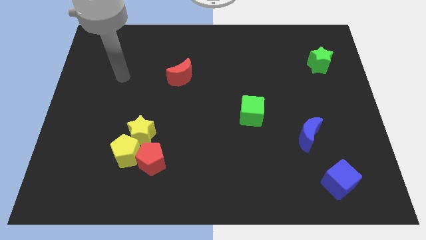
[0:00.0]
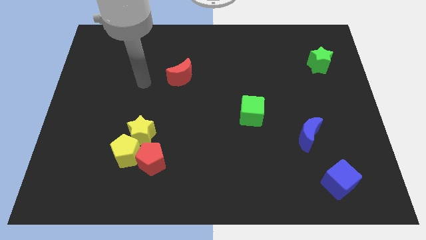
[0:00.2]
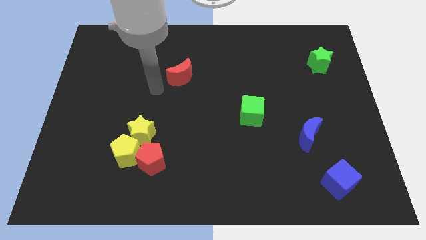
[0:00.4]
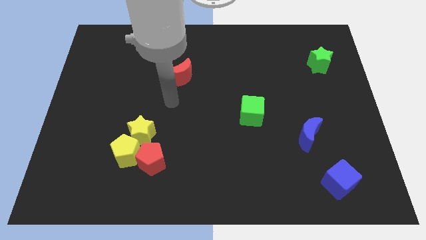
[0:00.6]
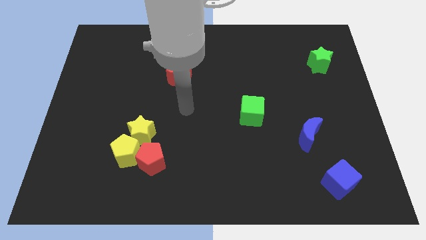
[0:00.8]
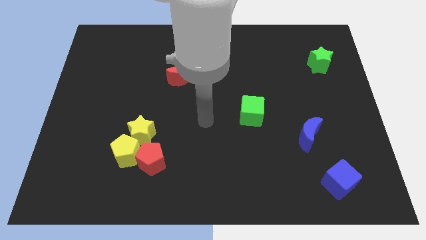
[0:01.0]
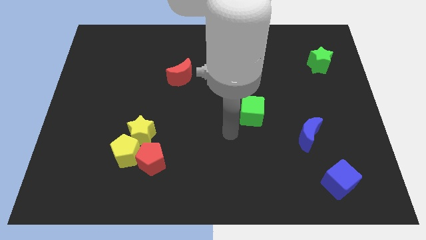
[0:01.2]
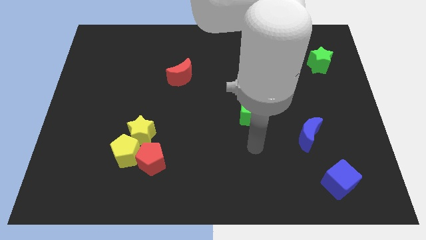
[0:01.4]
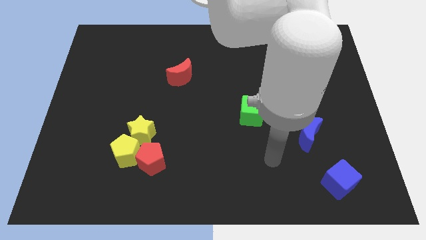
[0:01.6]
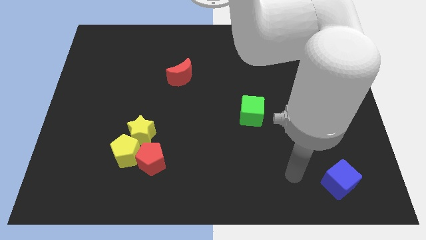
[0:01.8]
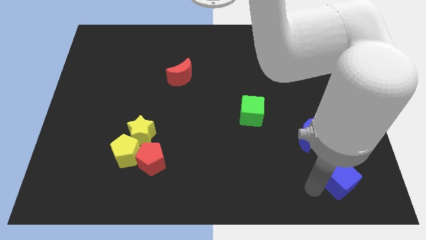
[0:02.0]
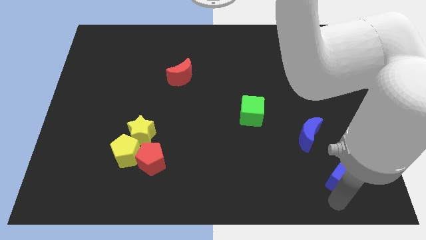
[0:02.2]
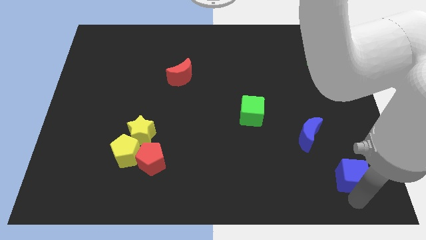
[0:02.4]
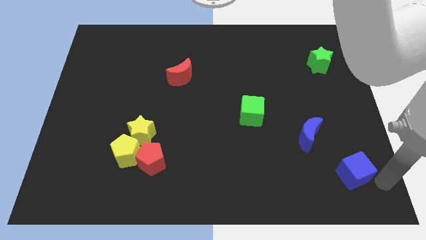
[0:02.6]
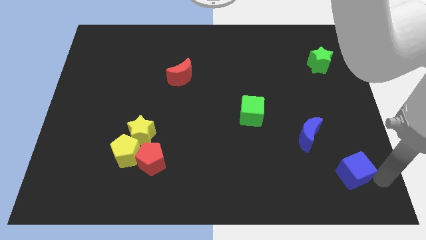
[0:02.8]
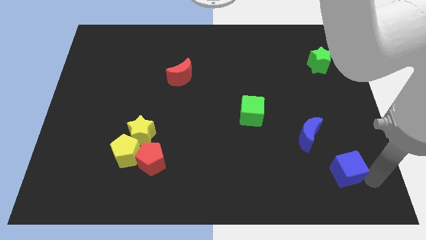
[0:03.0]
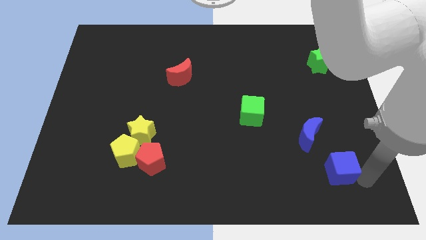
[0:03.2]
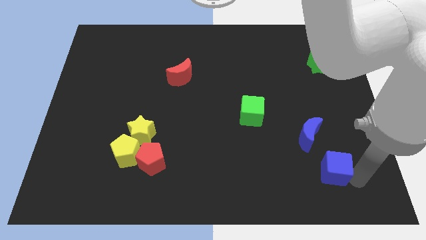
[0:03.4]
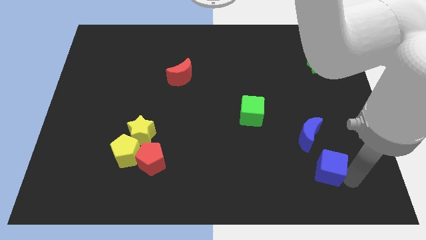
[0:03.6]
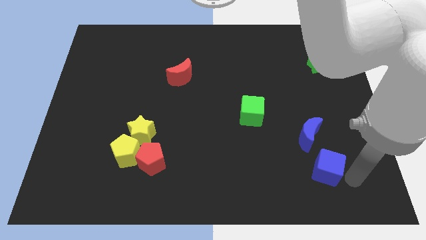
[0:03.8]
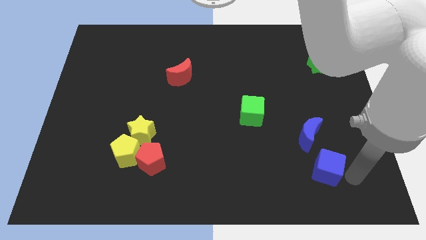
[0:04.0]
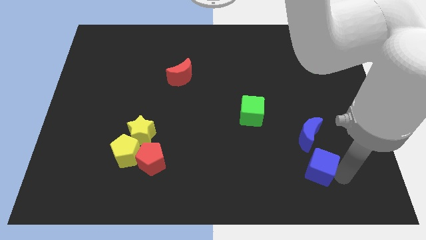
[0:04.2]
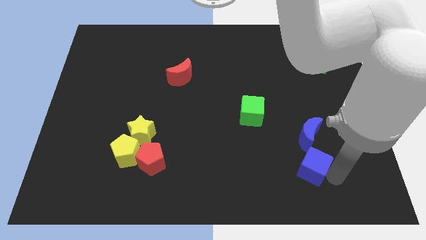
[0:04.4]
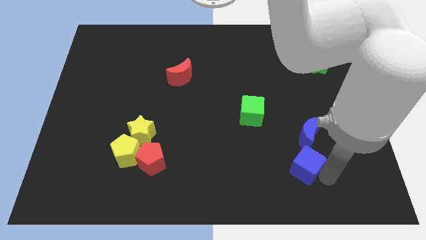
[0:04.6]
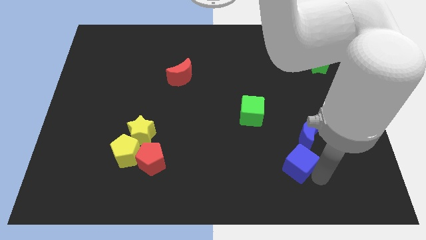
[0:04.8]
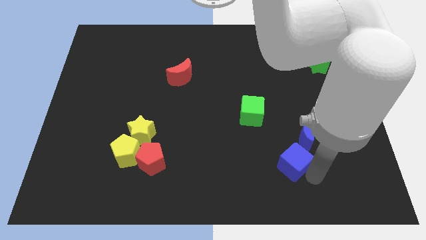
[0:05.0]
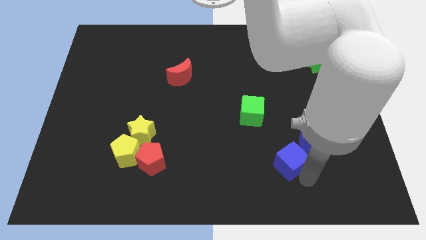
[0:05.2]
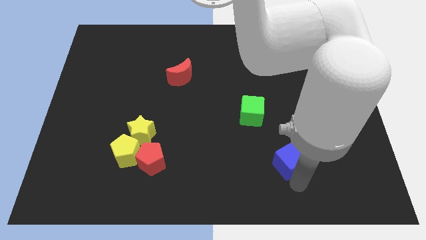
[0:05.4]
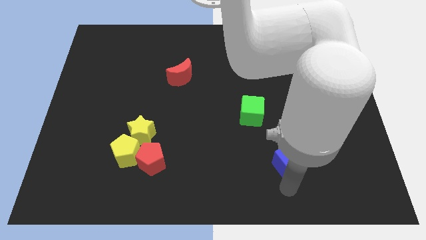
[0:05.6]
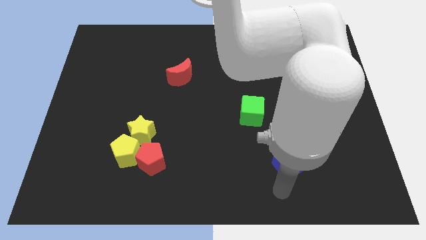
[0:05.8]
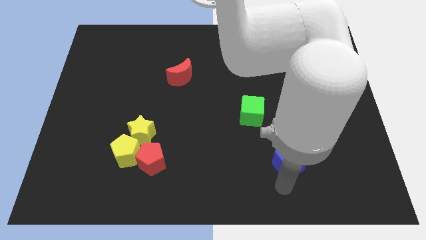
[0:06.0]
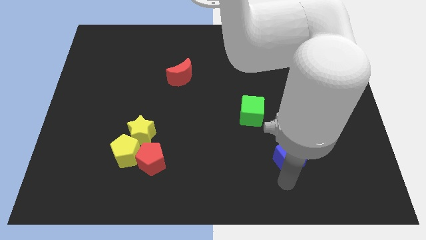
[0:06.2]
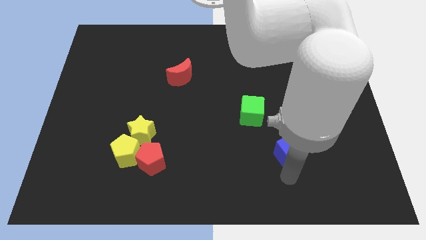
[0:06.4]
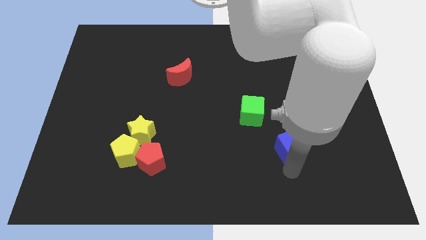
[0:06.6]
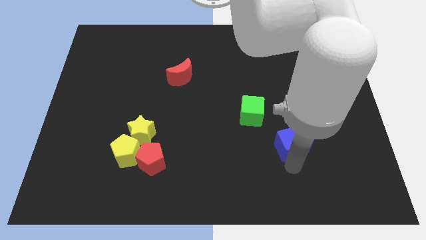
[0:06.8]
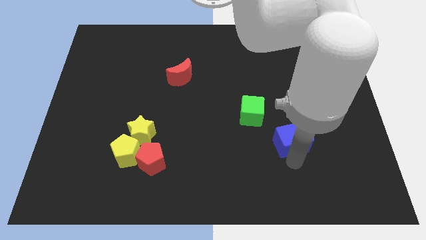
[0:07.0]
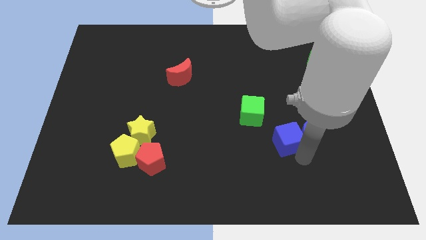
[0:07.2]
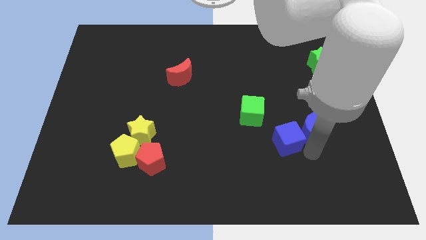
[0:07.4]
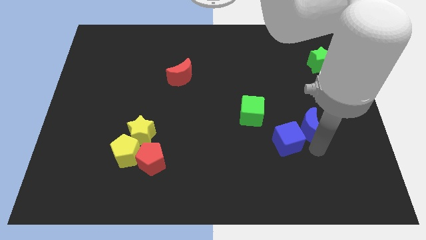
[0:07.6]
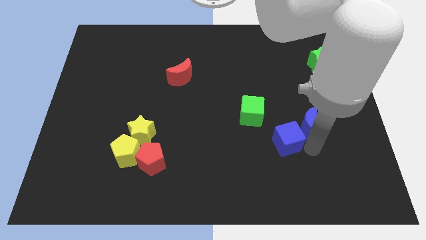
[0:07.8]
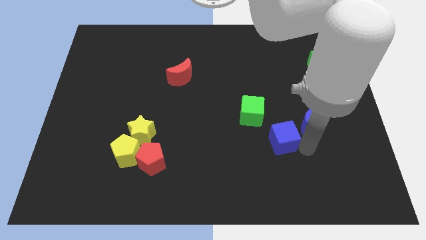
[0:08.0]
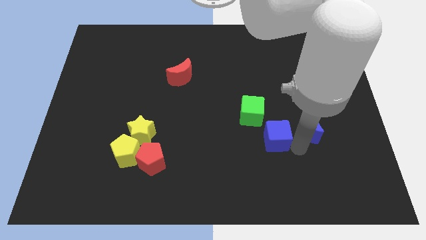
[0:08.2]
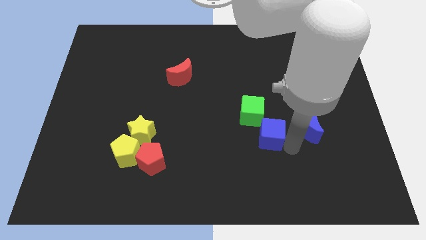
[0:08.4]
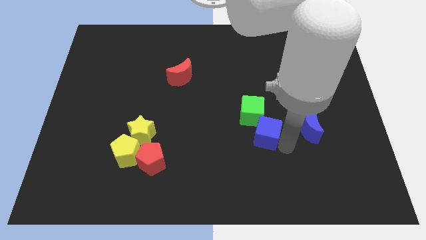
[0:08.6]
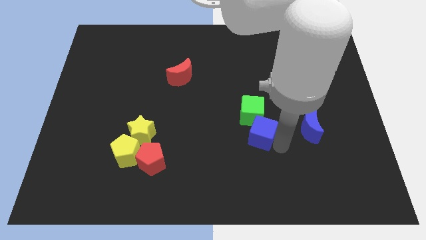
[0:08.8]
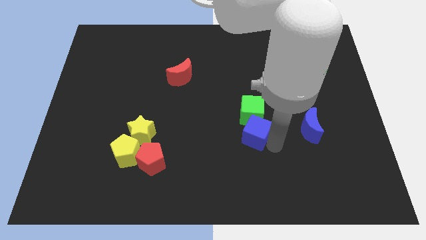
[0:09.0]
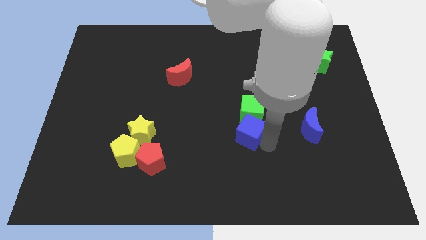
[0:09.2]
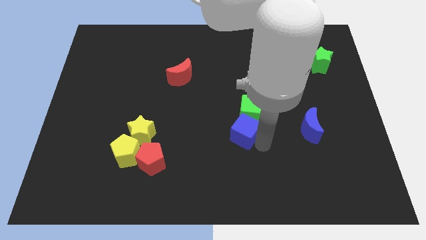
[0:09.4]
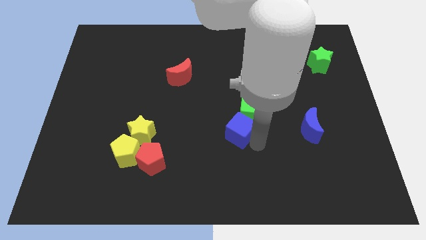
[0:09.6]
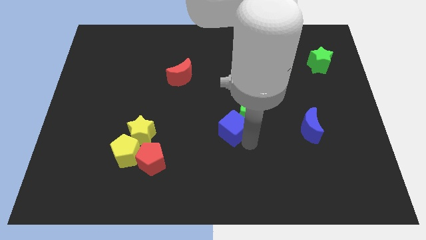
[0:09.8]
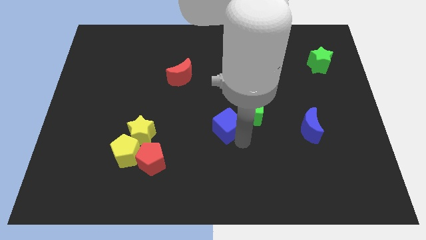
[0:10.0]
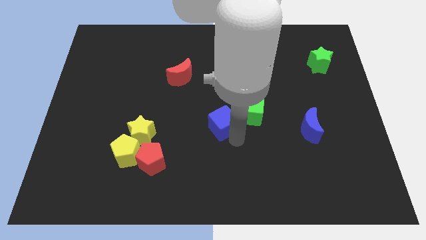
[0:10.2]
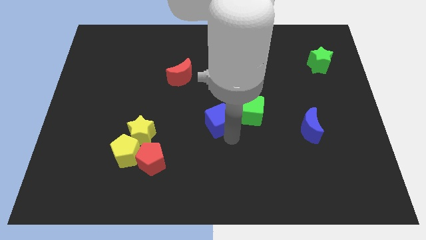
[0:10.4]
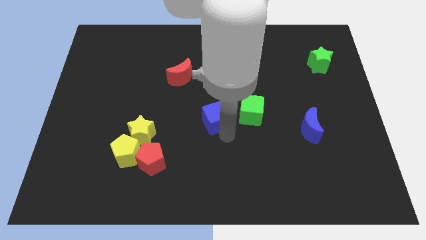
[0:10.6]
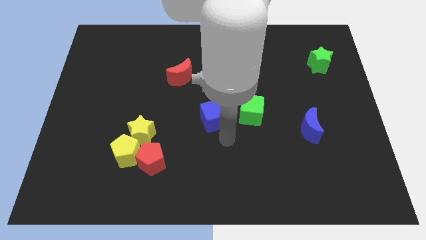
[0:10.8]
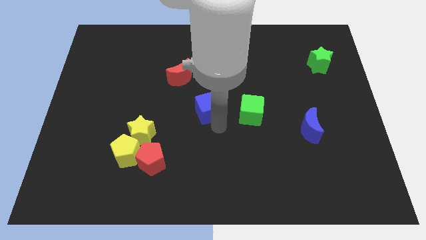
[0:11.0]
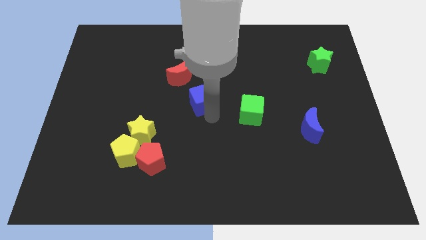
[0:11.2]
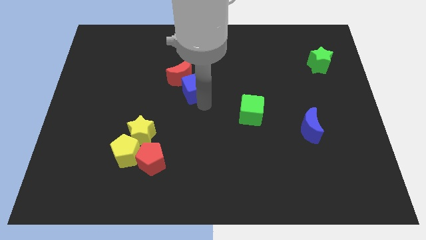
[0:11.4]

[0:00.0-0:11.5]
slide the blue cube towards the red moon

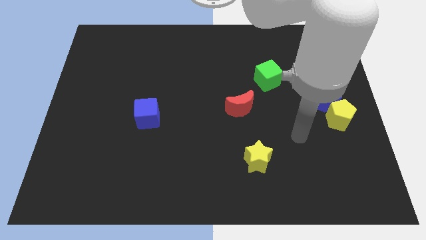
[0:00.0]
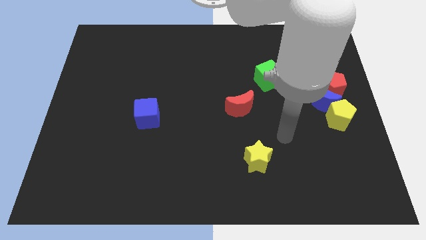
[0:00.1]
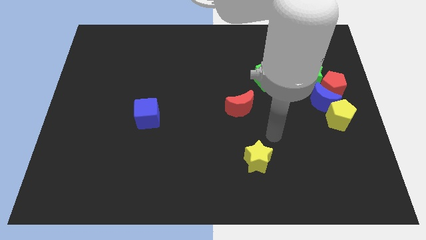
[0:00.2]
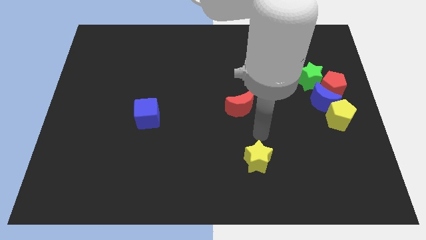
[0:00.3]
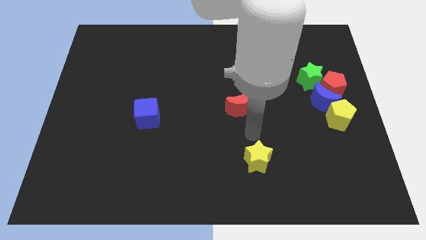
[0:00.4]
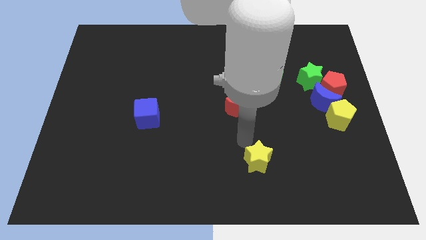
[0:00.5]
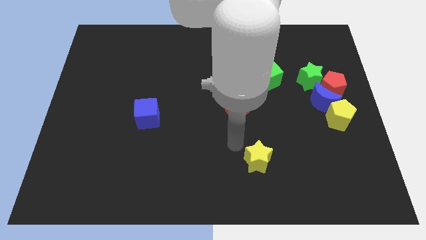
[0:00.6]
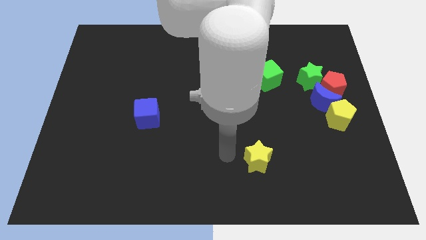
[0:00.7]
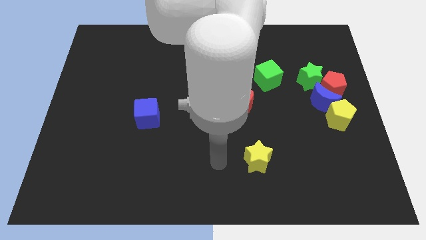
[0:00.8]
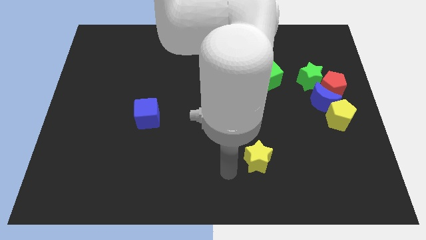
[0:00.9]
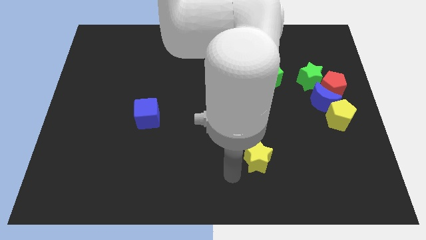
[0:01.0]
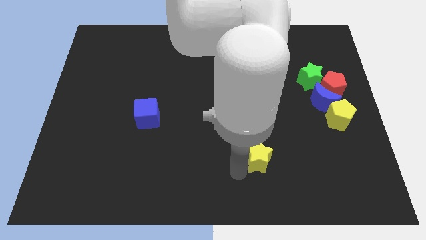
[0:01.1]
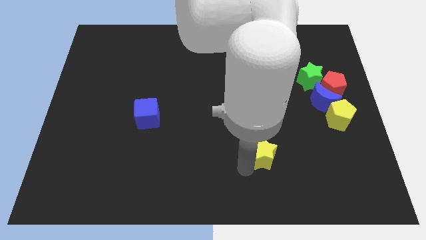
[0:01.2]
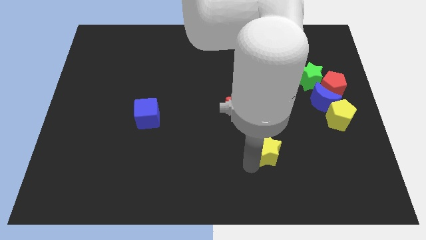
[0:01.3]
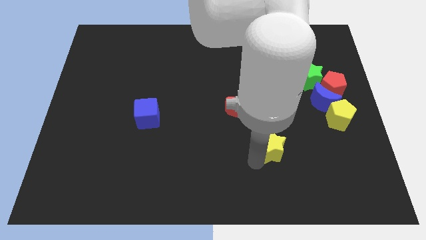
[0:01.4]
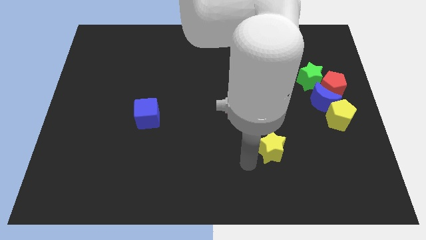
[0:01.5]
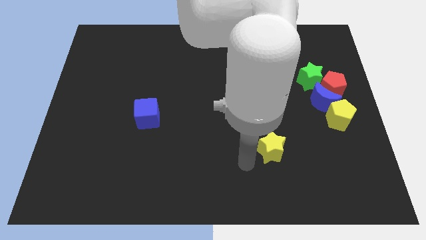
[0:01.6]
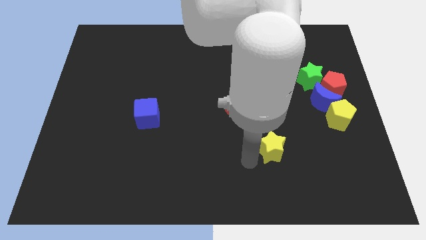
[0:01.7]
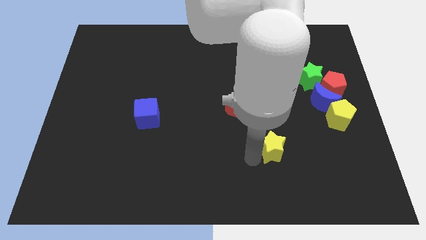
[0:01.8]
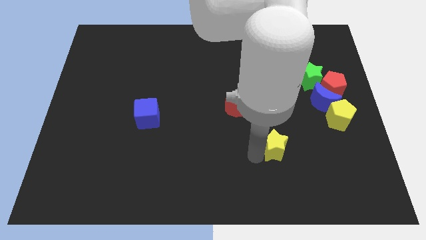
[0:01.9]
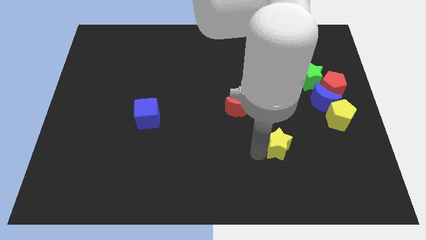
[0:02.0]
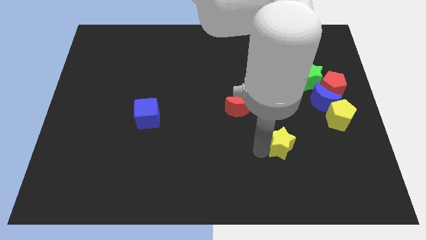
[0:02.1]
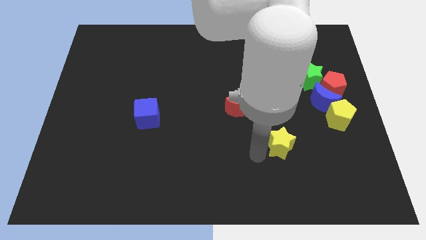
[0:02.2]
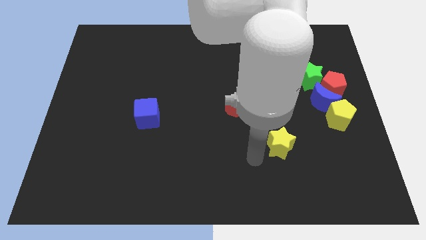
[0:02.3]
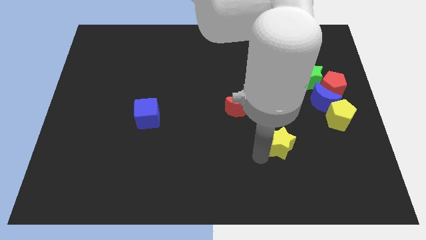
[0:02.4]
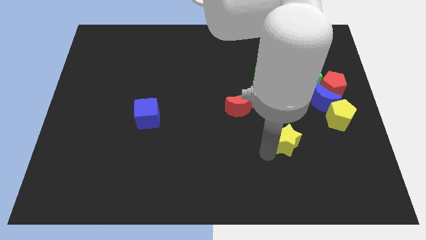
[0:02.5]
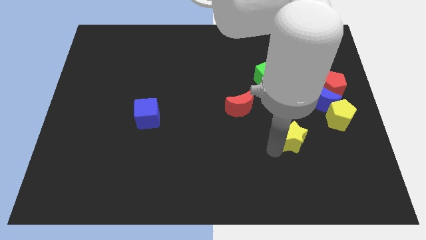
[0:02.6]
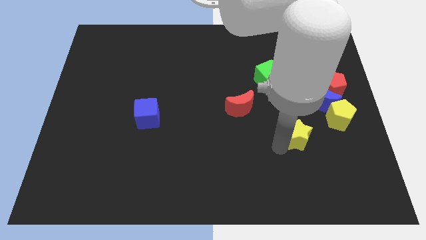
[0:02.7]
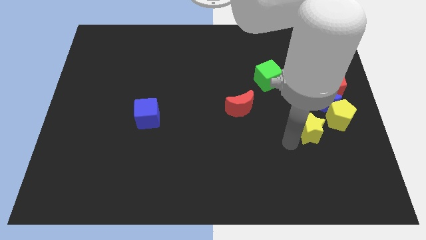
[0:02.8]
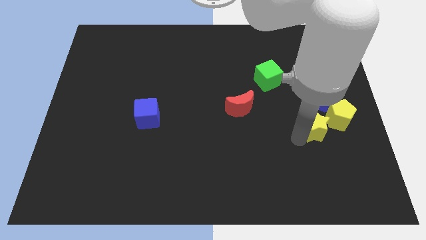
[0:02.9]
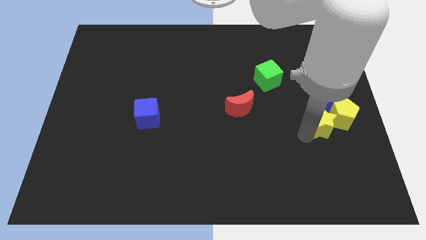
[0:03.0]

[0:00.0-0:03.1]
push the yellow star to the yellow pentagon
